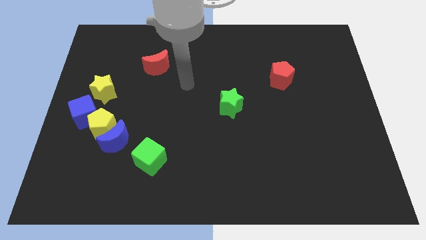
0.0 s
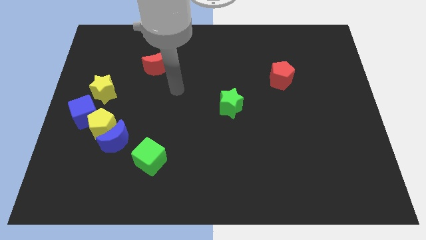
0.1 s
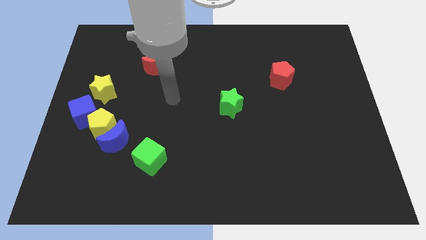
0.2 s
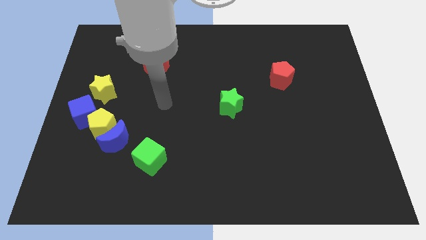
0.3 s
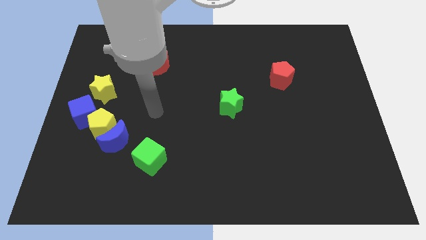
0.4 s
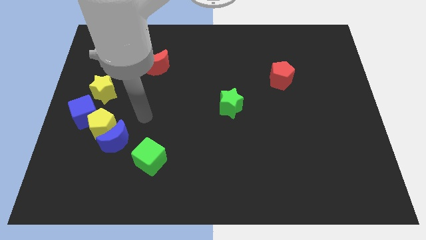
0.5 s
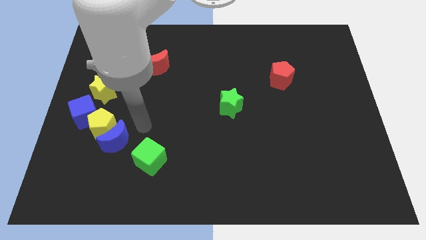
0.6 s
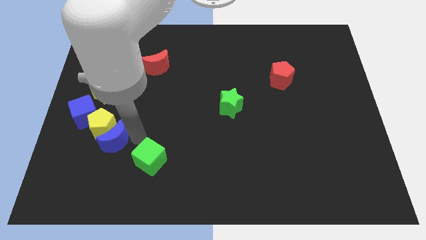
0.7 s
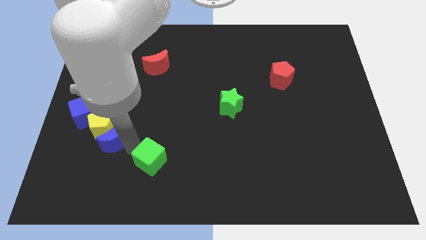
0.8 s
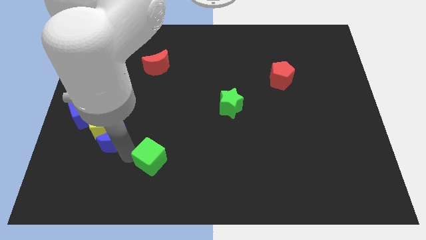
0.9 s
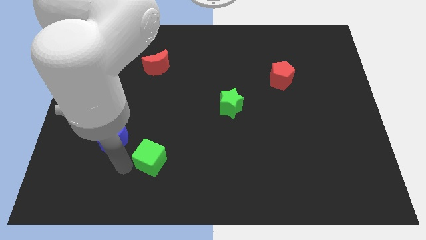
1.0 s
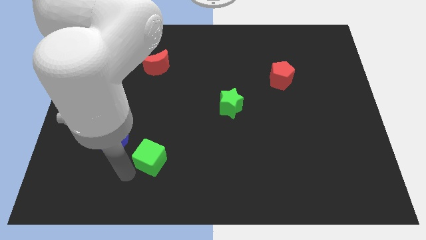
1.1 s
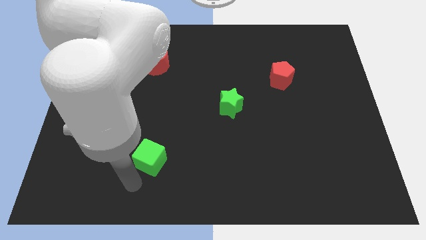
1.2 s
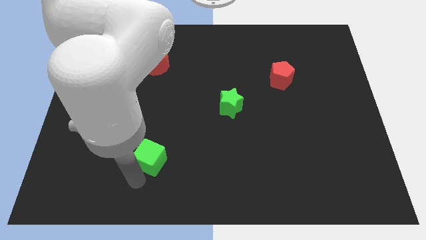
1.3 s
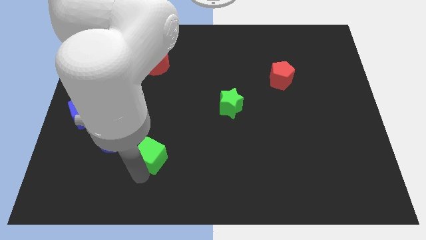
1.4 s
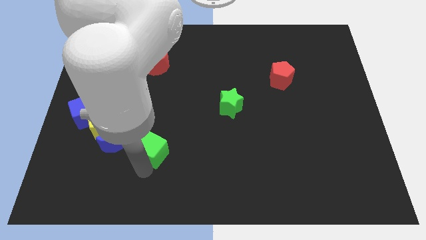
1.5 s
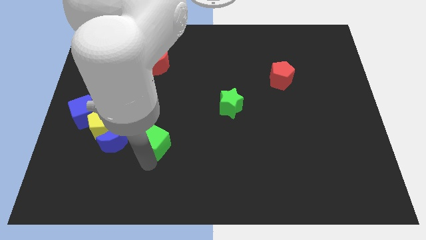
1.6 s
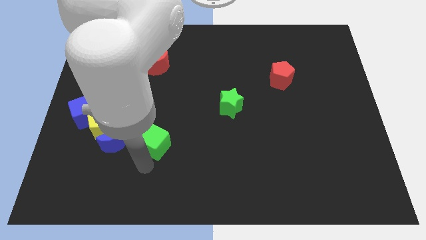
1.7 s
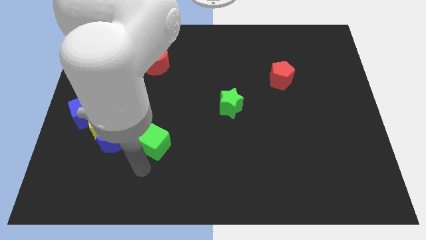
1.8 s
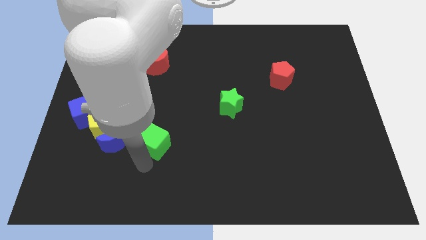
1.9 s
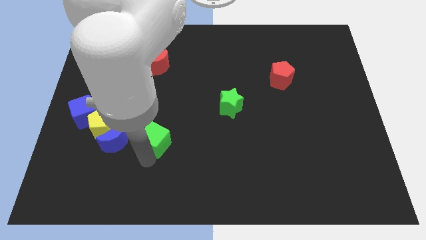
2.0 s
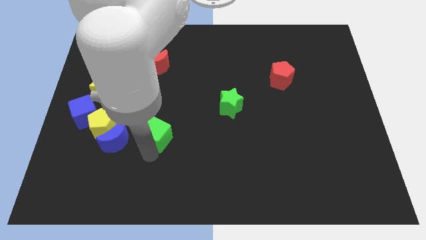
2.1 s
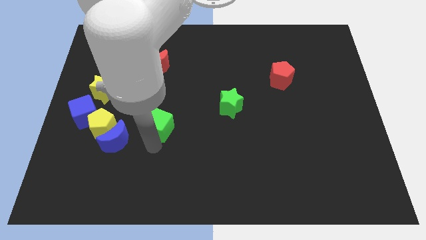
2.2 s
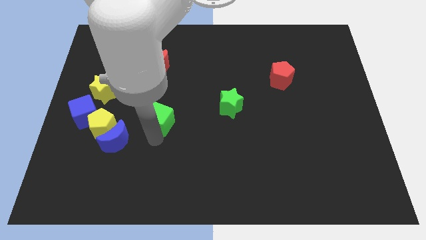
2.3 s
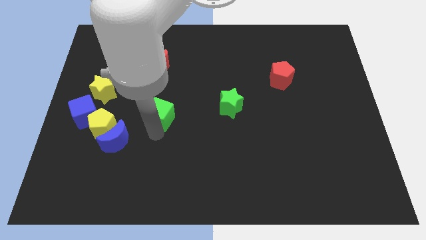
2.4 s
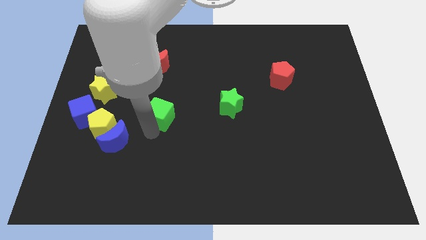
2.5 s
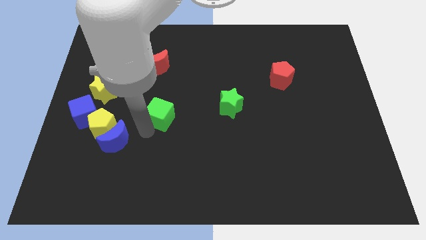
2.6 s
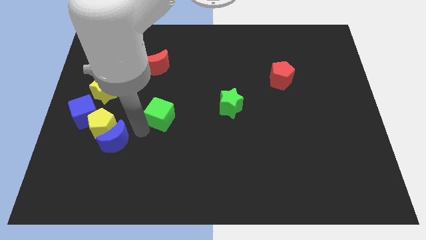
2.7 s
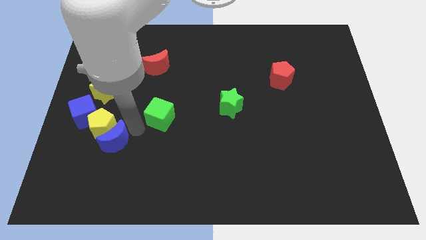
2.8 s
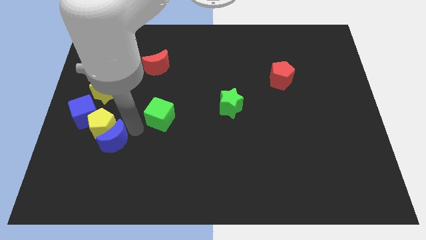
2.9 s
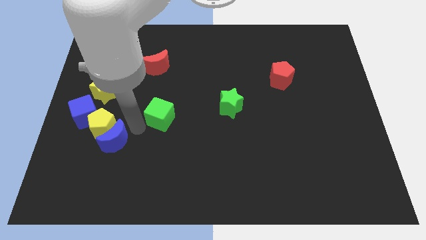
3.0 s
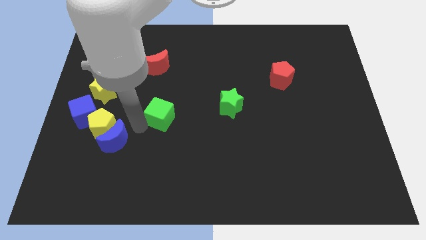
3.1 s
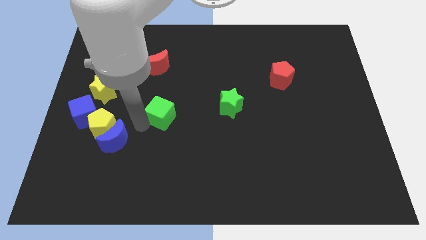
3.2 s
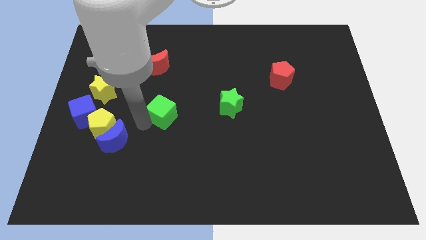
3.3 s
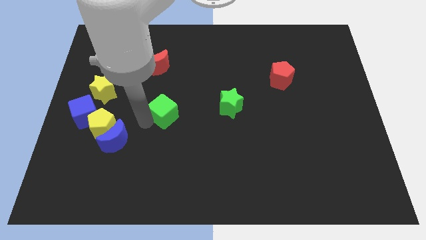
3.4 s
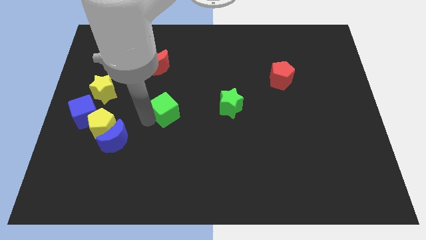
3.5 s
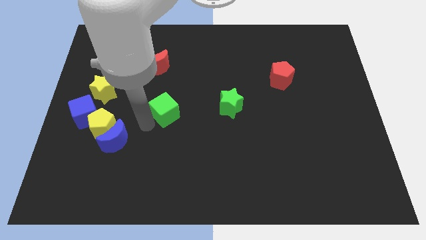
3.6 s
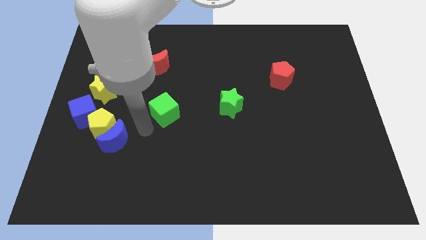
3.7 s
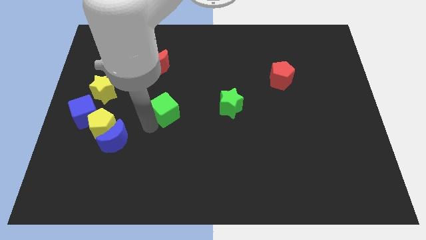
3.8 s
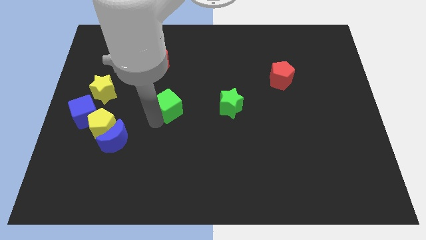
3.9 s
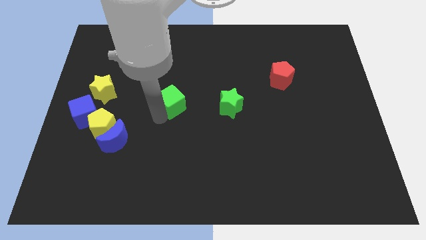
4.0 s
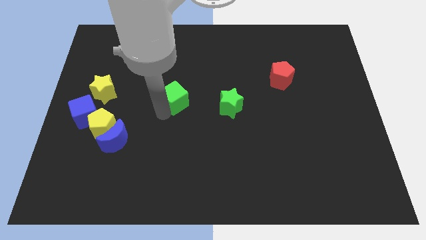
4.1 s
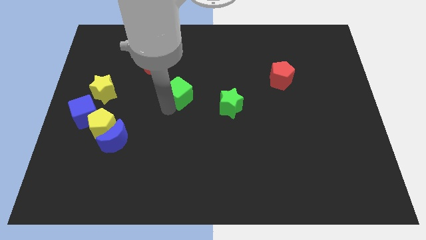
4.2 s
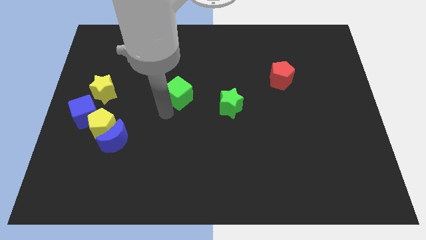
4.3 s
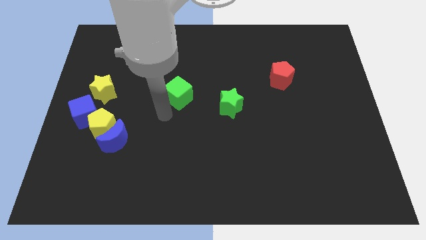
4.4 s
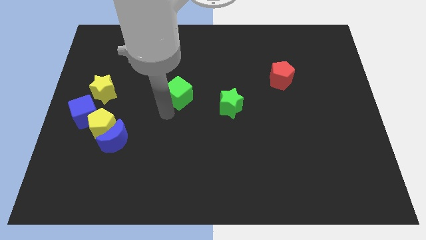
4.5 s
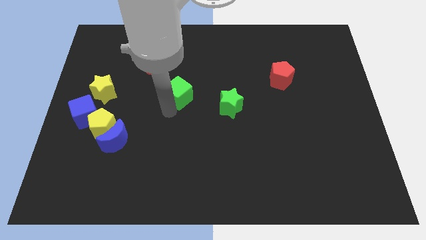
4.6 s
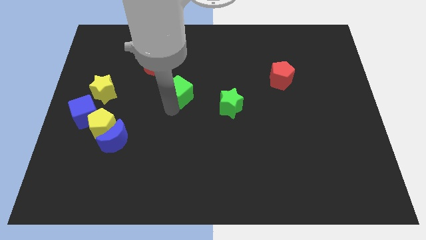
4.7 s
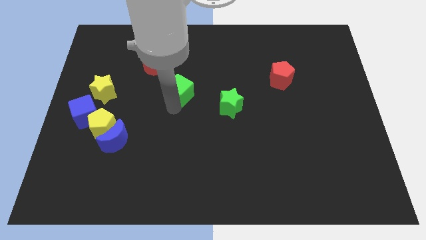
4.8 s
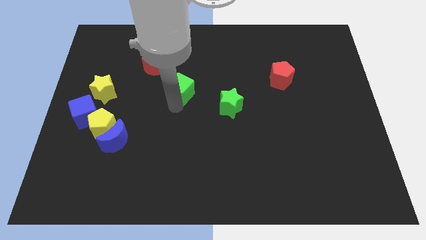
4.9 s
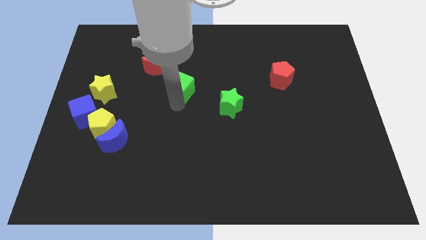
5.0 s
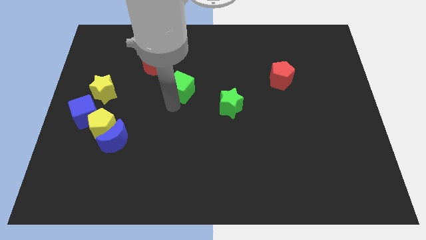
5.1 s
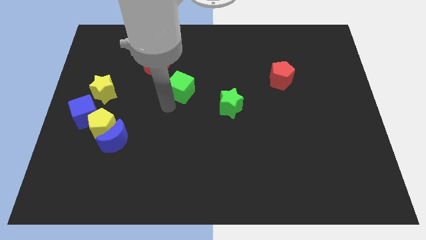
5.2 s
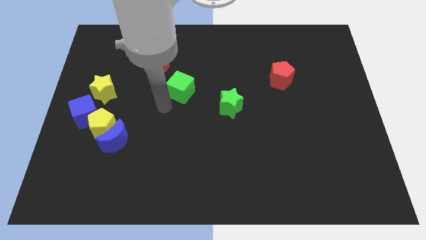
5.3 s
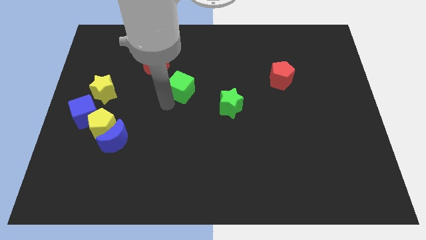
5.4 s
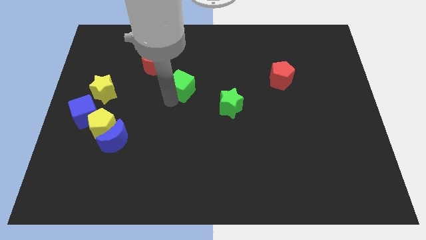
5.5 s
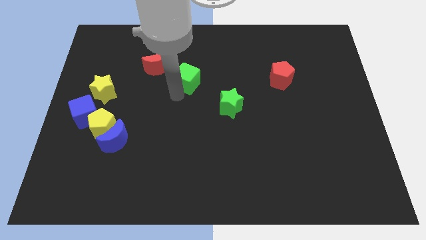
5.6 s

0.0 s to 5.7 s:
move the green cube to the right of the red moon

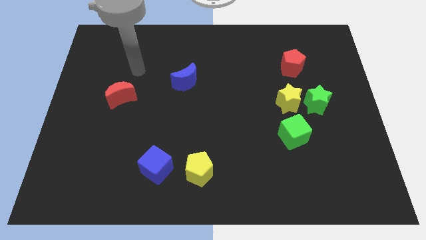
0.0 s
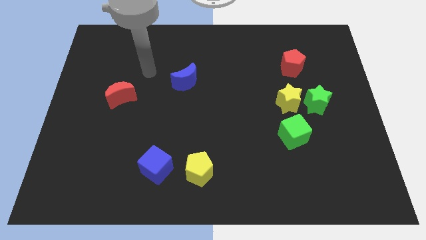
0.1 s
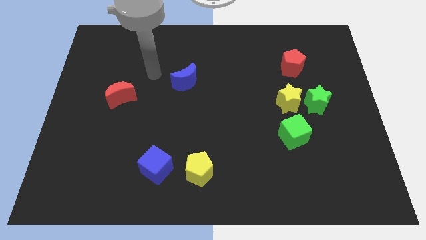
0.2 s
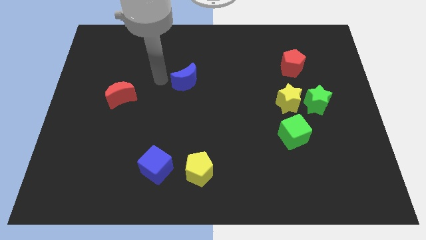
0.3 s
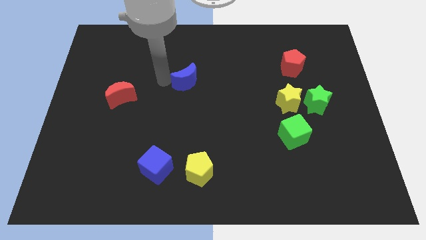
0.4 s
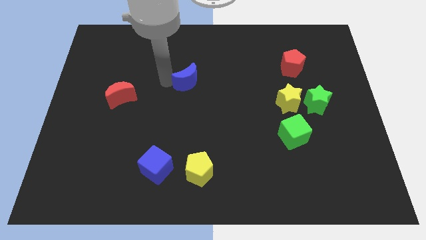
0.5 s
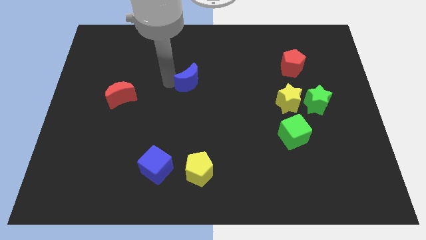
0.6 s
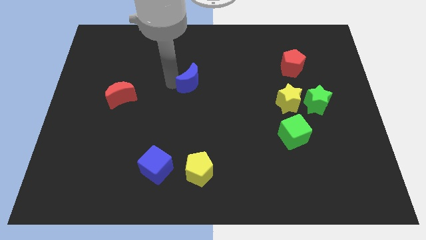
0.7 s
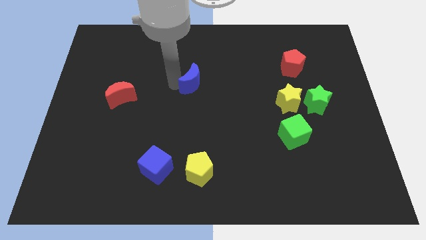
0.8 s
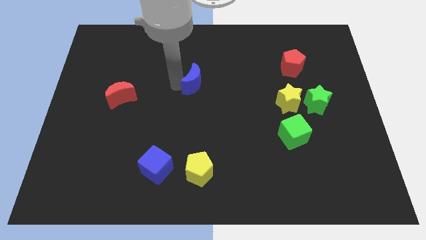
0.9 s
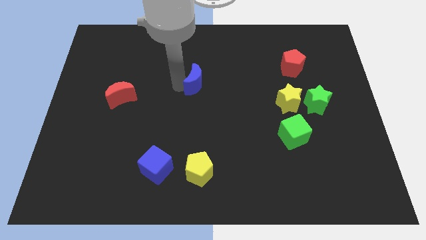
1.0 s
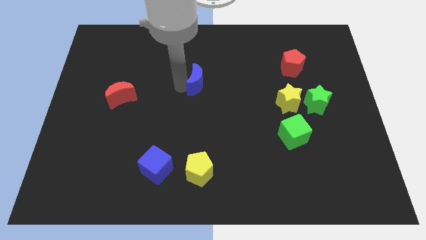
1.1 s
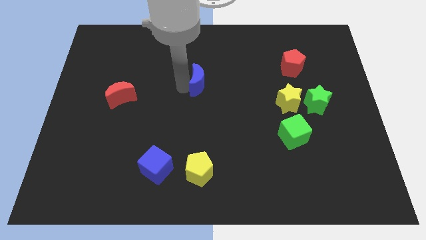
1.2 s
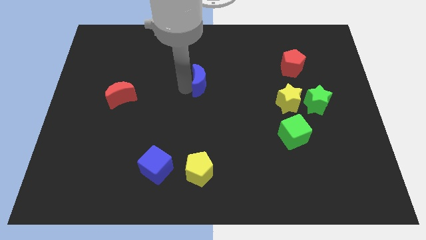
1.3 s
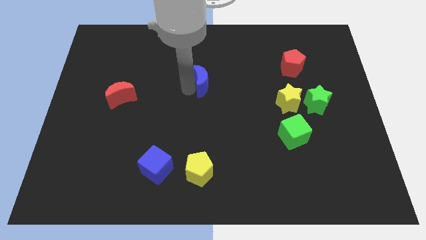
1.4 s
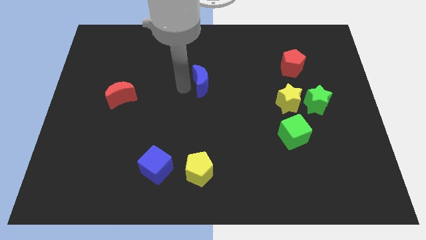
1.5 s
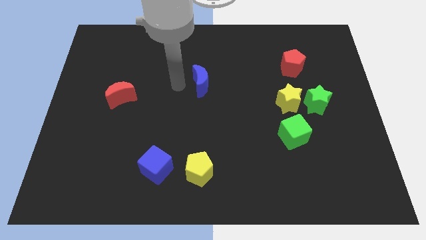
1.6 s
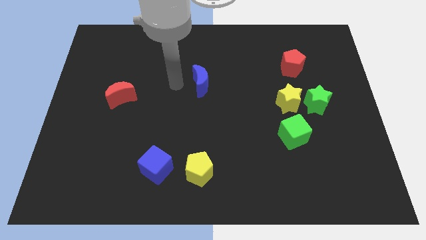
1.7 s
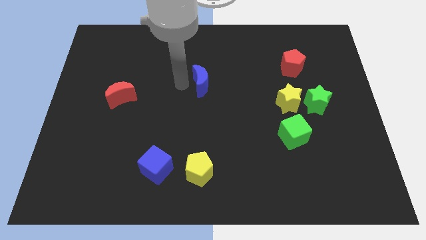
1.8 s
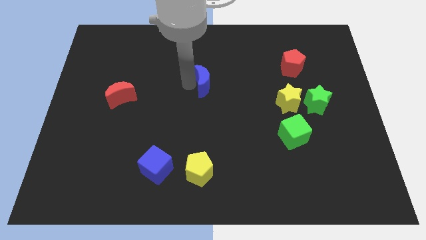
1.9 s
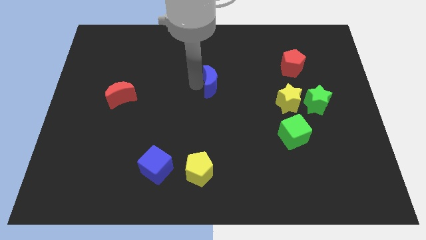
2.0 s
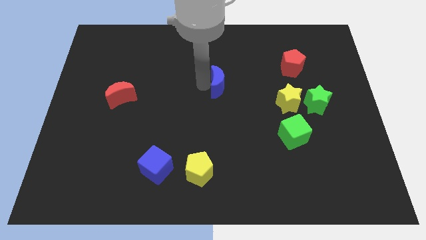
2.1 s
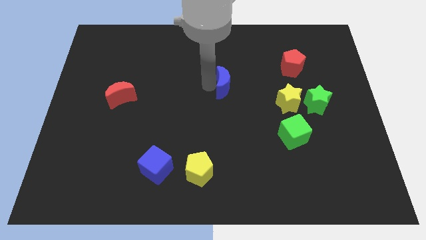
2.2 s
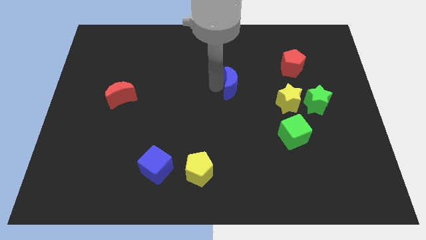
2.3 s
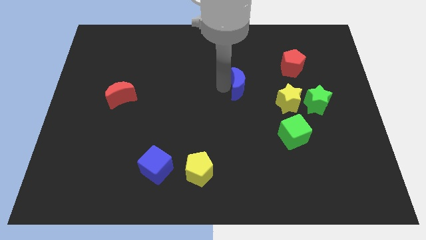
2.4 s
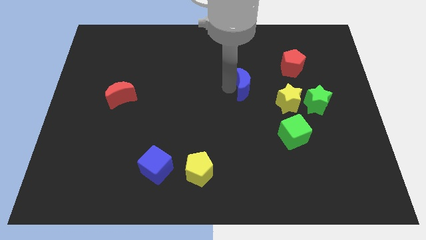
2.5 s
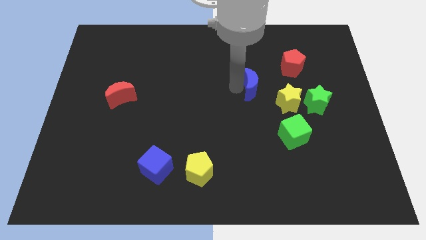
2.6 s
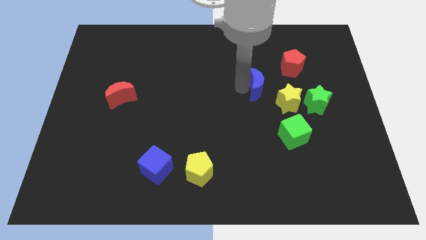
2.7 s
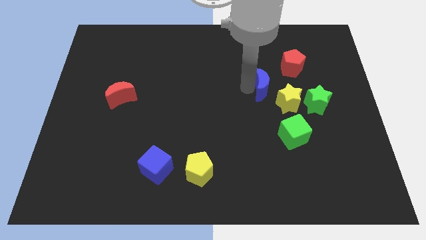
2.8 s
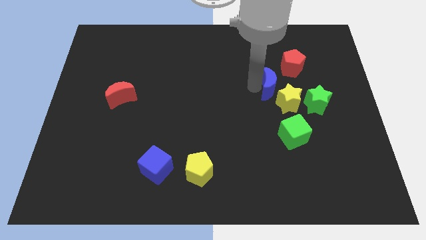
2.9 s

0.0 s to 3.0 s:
put the blue moon to the top side of the green cube
